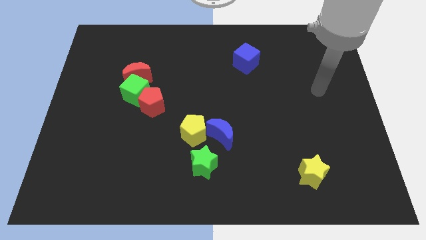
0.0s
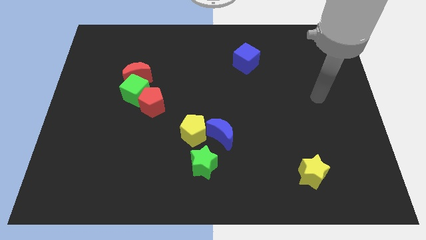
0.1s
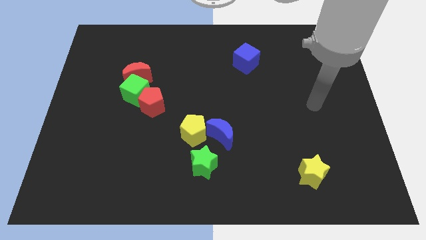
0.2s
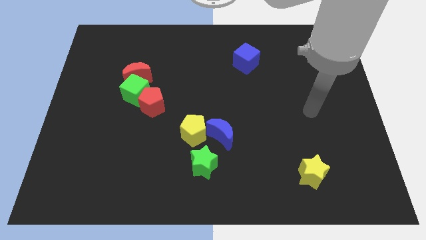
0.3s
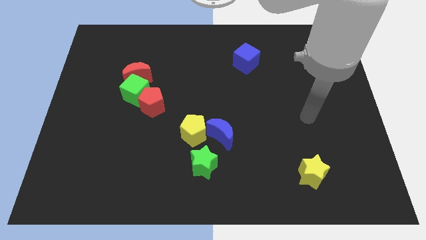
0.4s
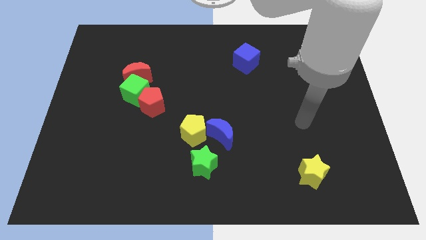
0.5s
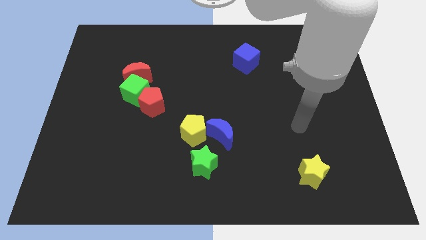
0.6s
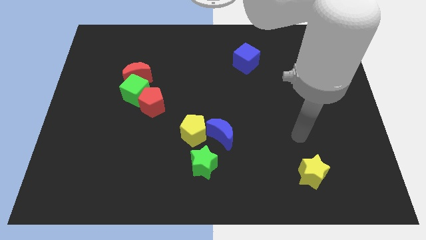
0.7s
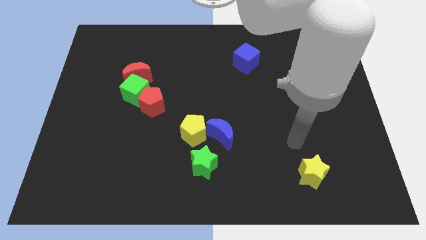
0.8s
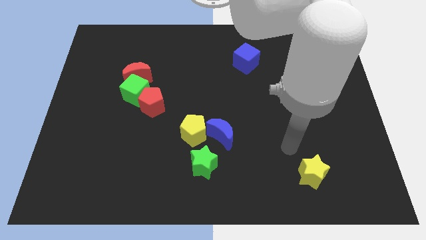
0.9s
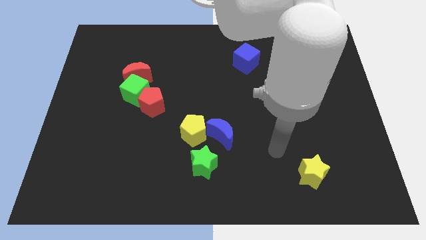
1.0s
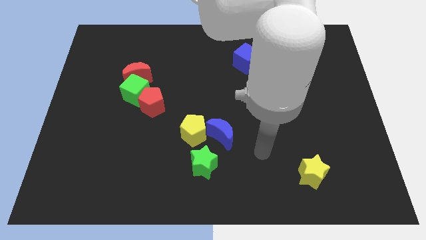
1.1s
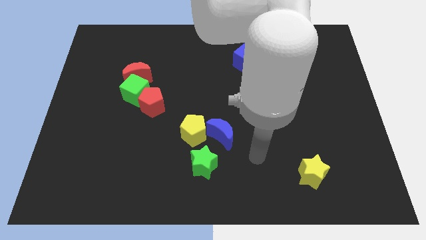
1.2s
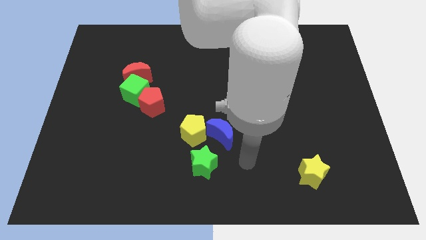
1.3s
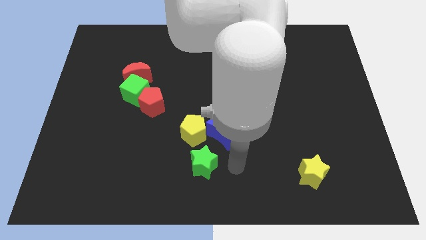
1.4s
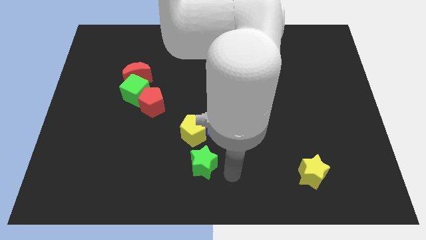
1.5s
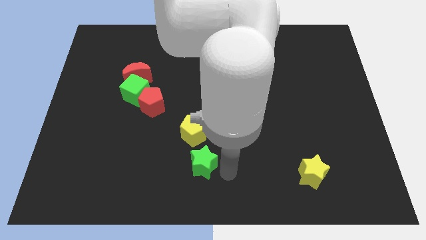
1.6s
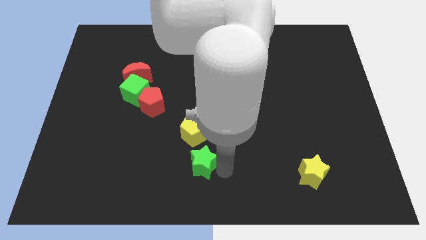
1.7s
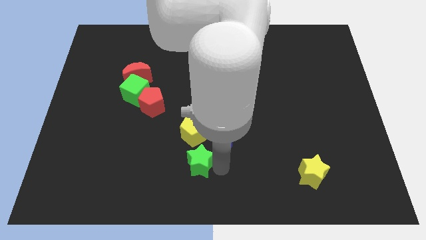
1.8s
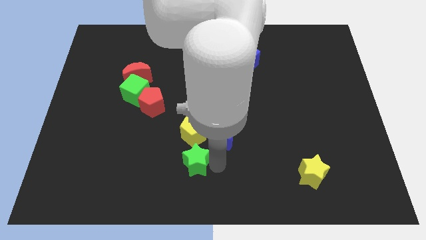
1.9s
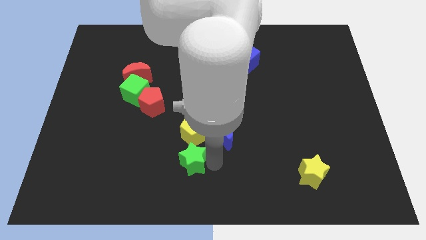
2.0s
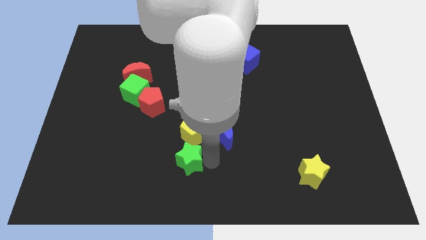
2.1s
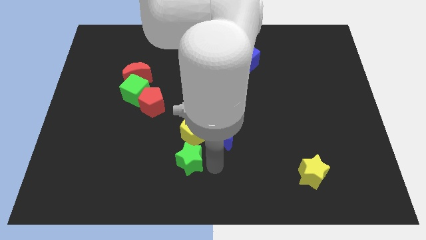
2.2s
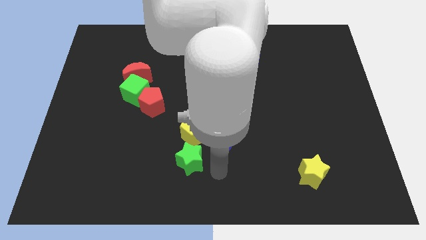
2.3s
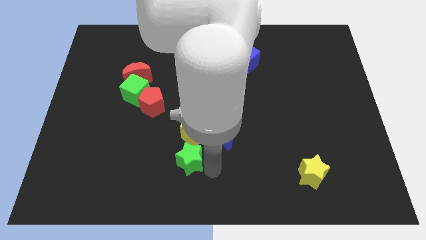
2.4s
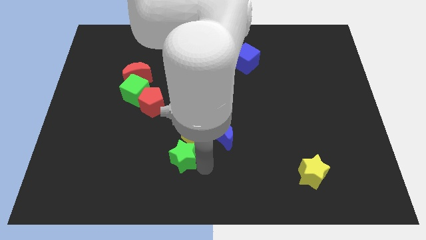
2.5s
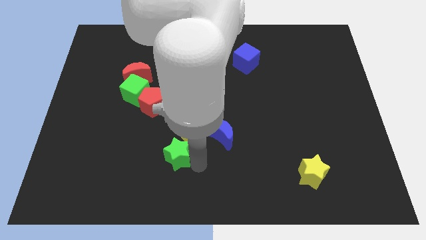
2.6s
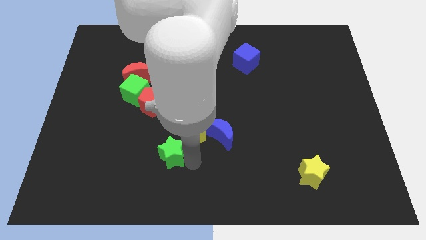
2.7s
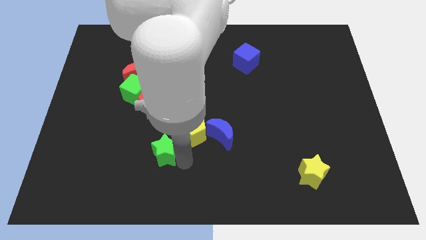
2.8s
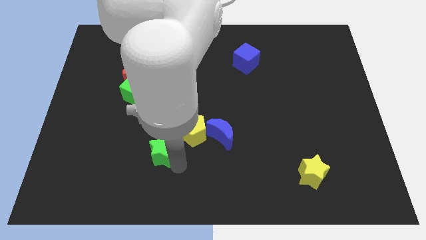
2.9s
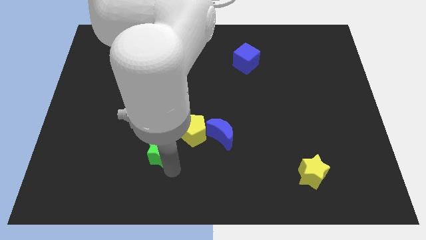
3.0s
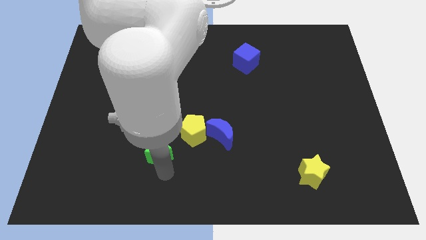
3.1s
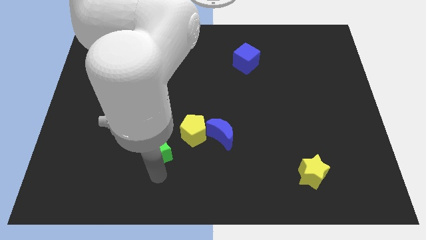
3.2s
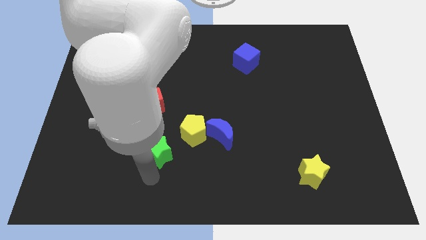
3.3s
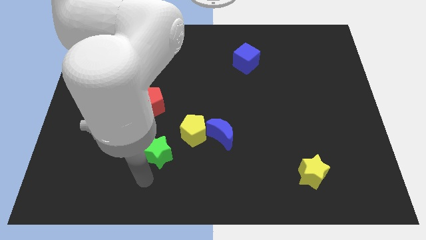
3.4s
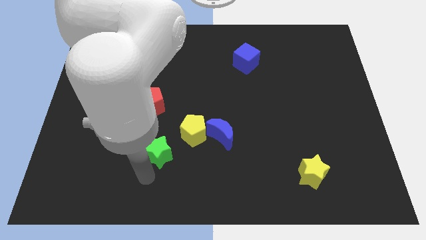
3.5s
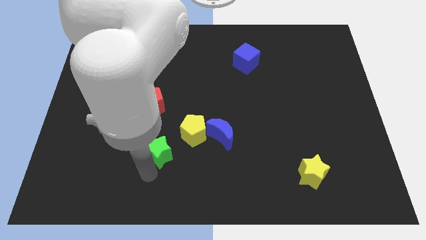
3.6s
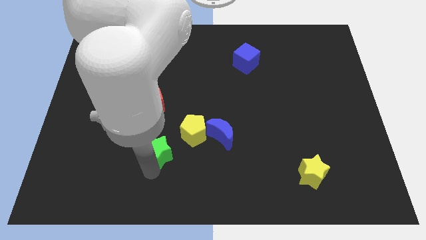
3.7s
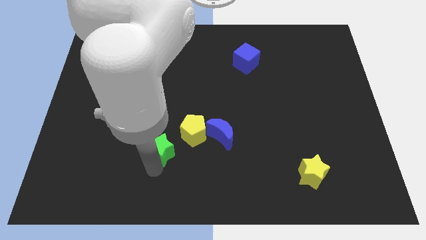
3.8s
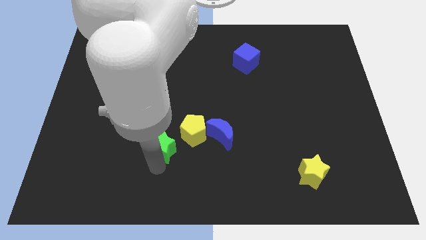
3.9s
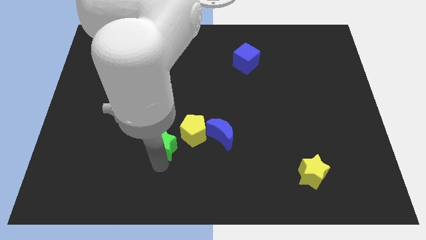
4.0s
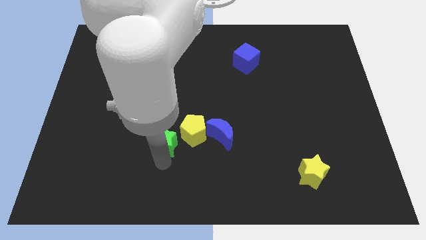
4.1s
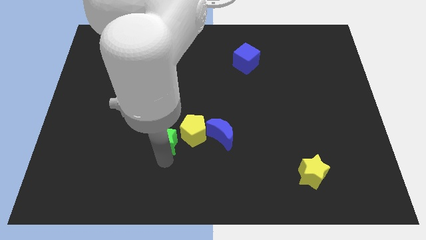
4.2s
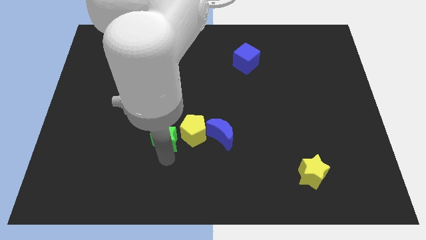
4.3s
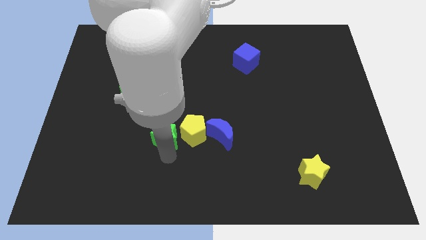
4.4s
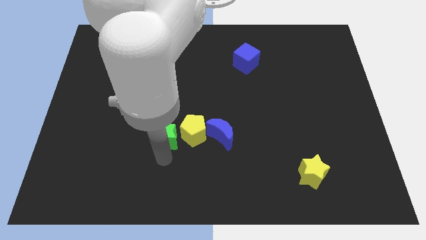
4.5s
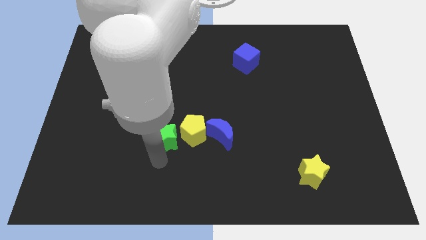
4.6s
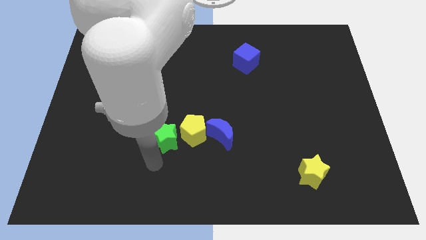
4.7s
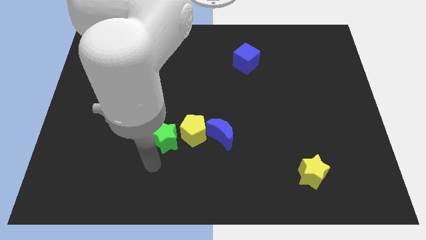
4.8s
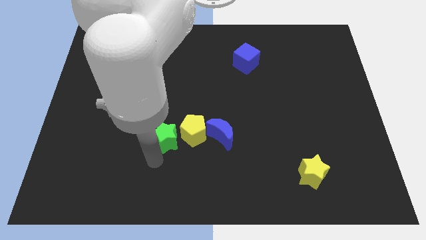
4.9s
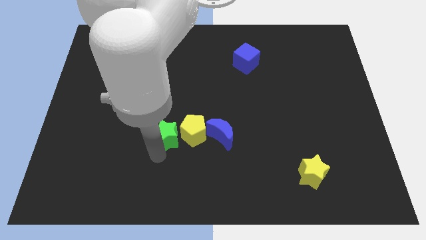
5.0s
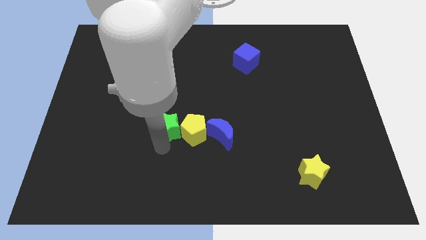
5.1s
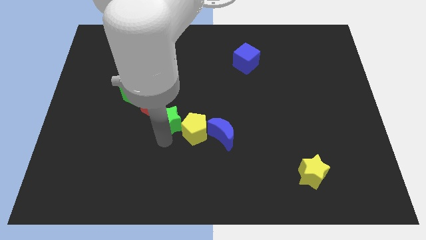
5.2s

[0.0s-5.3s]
move the green star to the bottom right of the green cube

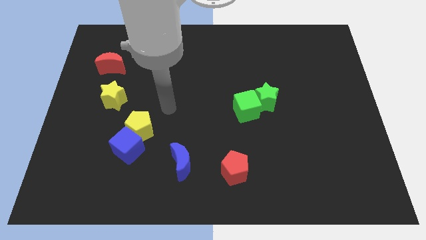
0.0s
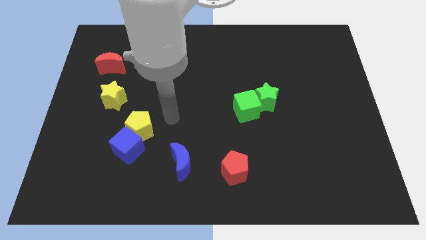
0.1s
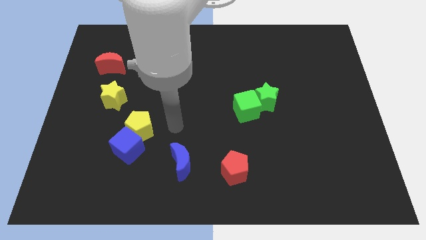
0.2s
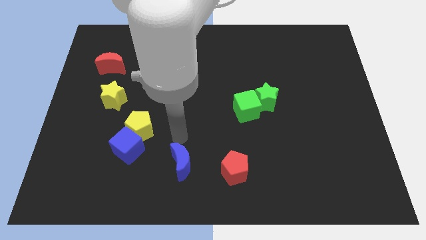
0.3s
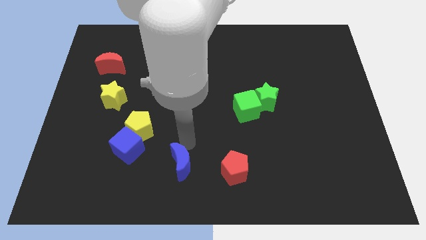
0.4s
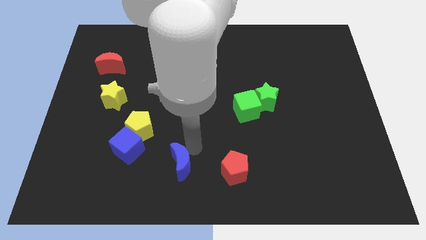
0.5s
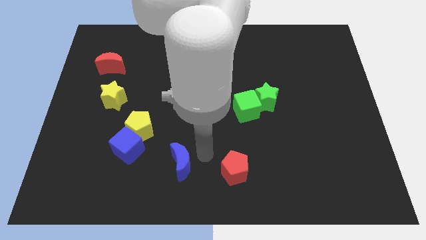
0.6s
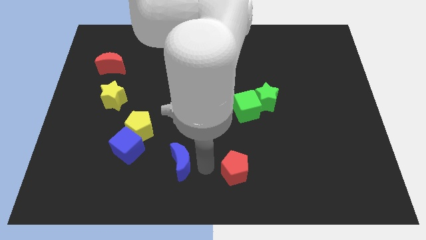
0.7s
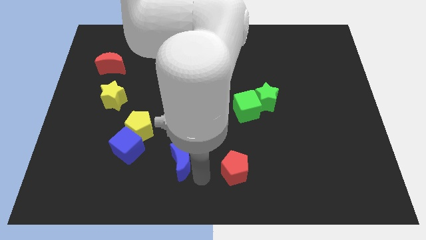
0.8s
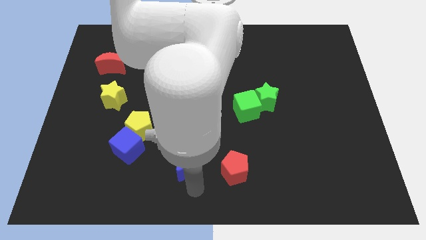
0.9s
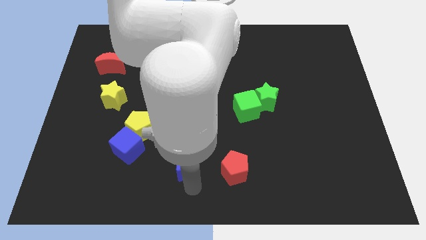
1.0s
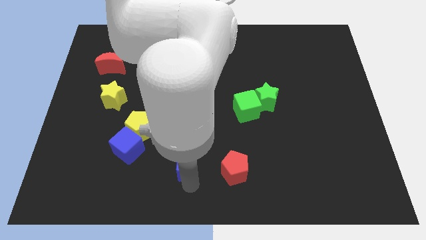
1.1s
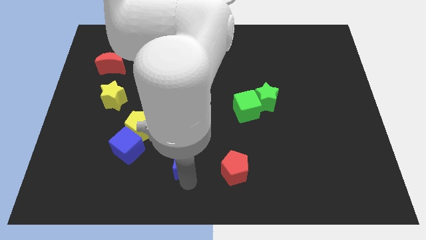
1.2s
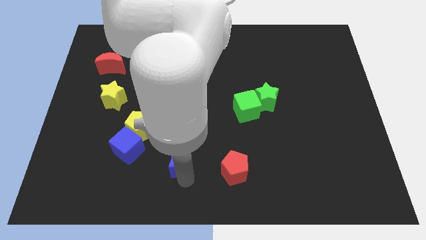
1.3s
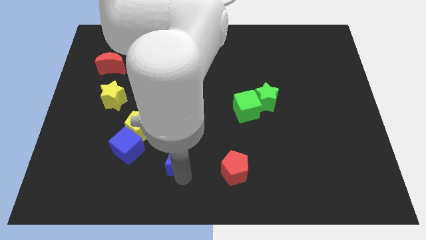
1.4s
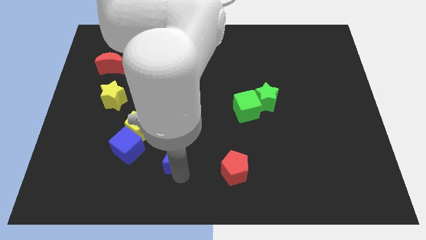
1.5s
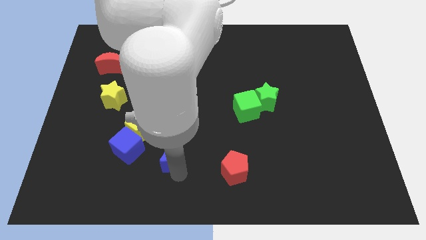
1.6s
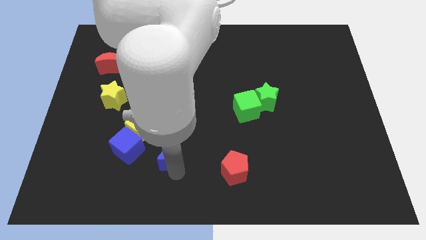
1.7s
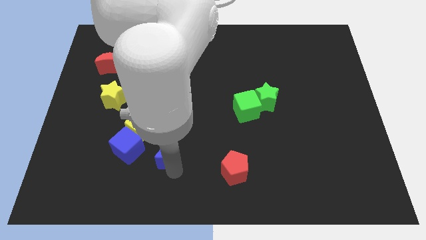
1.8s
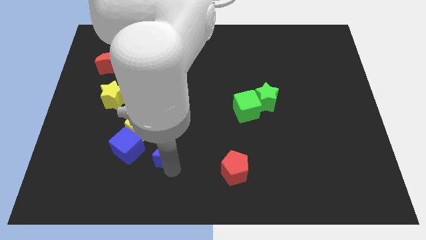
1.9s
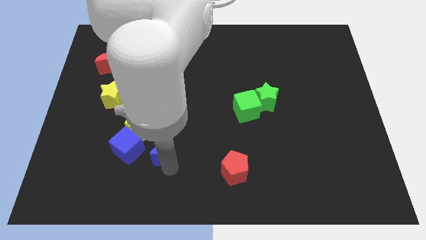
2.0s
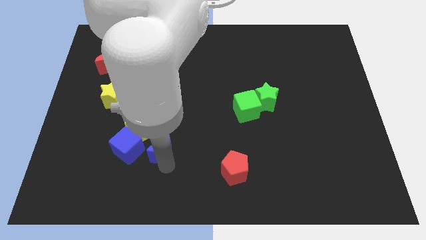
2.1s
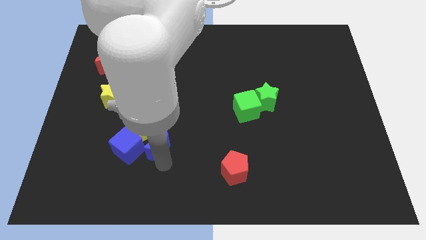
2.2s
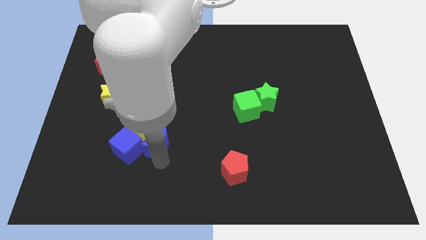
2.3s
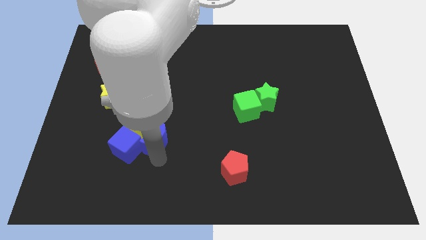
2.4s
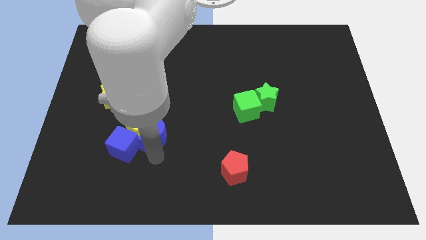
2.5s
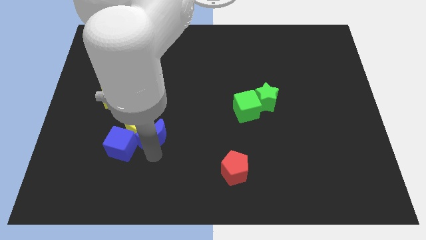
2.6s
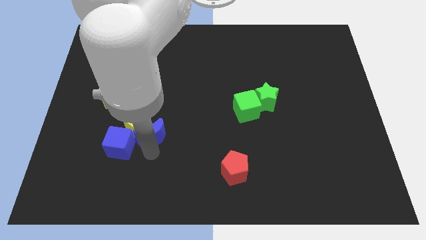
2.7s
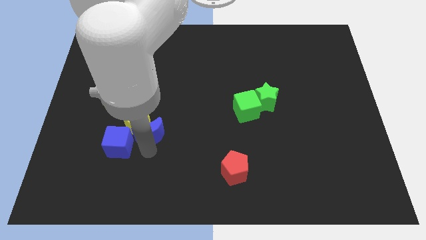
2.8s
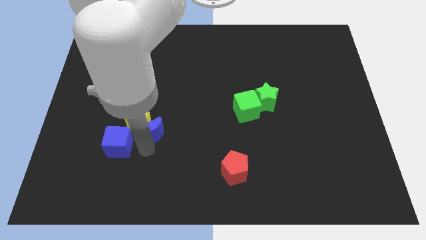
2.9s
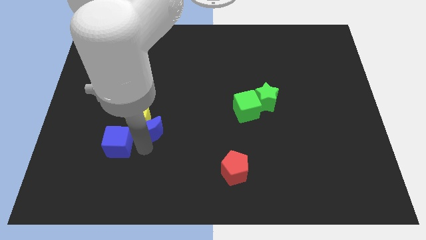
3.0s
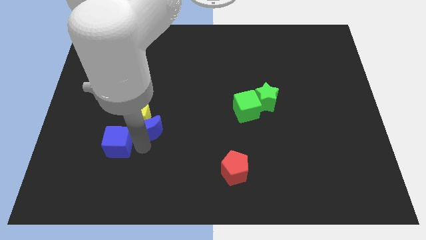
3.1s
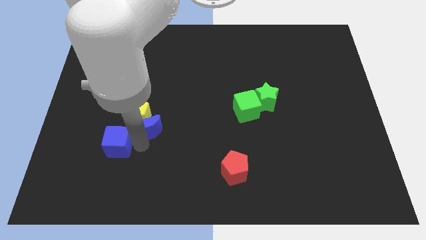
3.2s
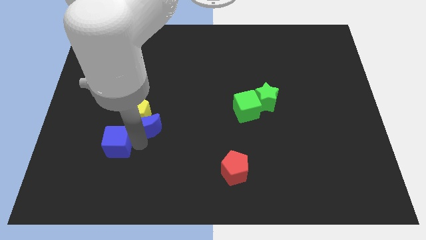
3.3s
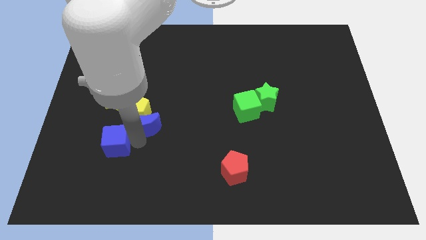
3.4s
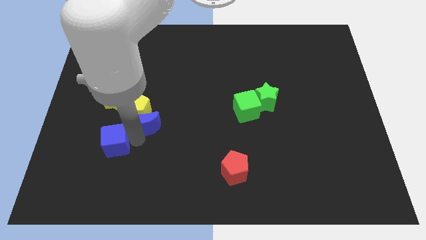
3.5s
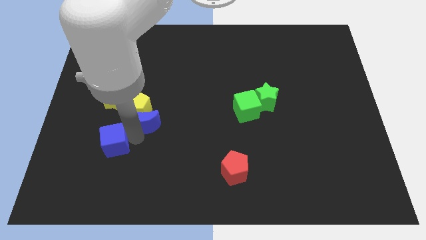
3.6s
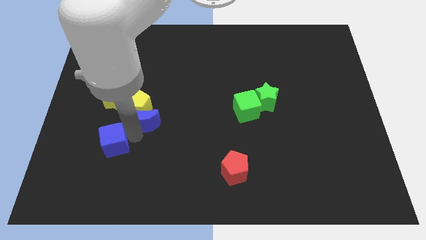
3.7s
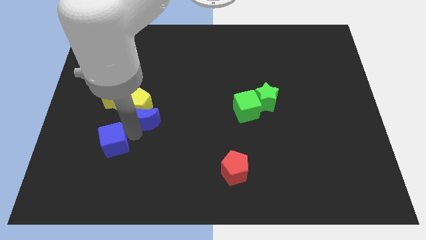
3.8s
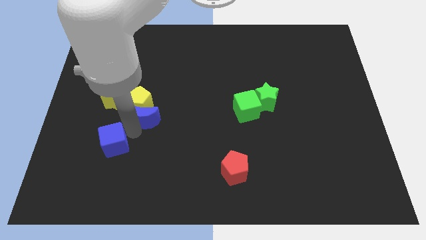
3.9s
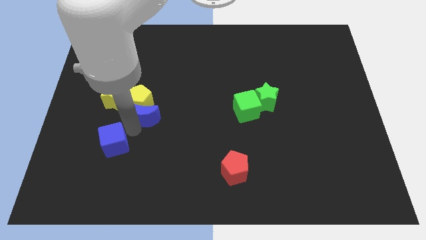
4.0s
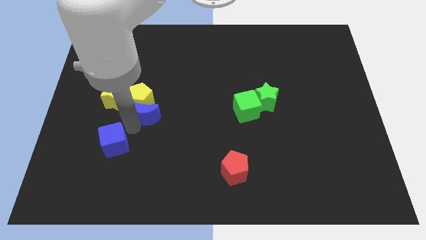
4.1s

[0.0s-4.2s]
slide the blue moon to the right of the yellow star
